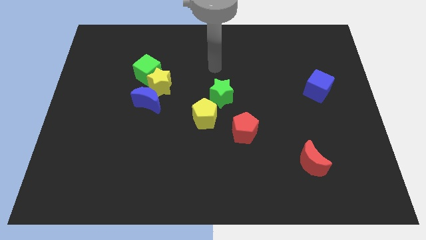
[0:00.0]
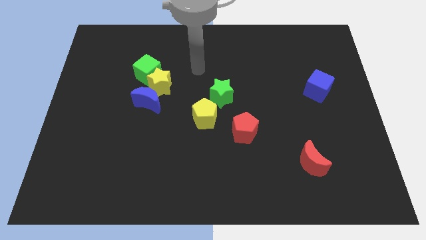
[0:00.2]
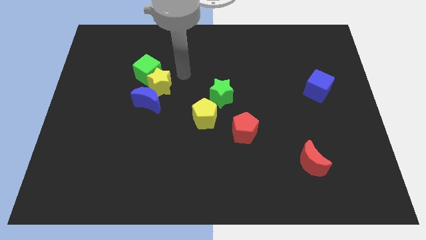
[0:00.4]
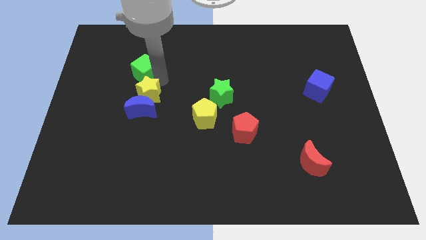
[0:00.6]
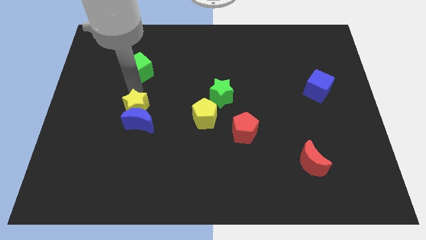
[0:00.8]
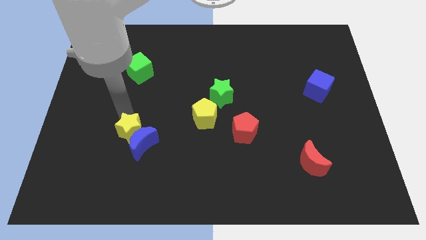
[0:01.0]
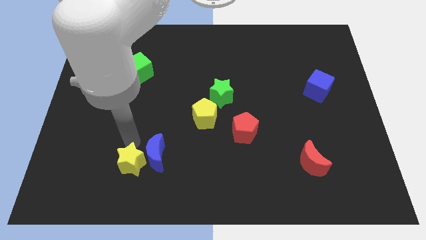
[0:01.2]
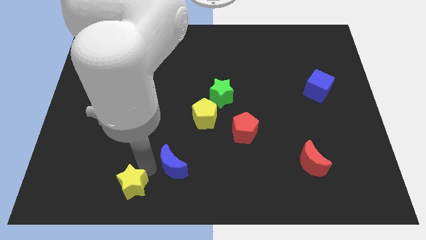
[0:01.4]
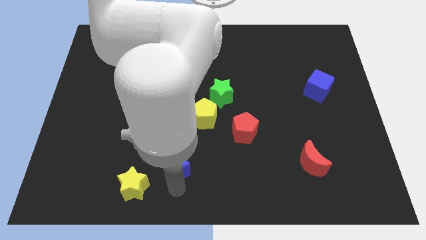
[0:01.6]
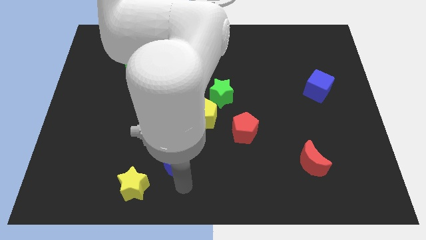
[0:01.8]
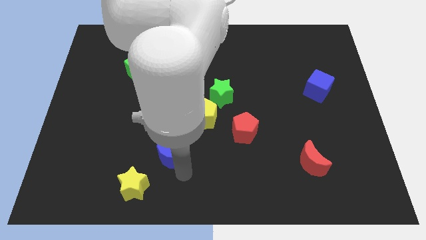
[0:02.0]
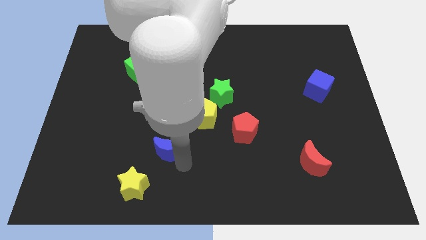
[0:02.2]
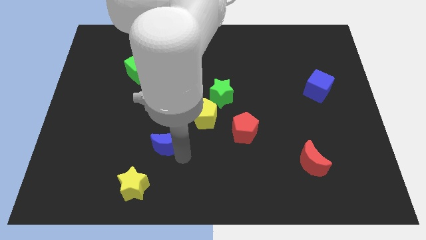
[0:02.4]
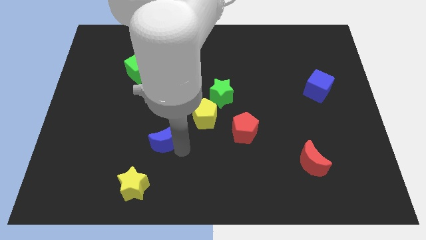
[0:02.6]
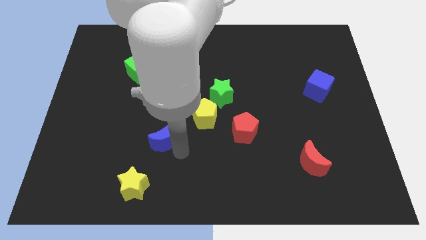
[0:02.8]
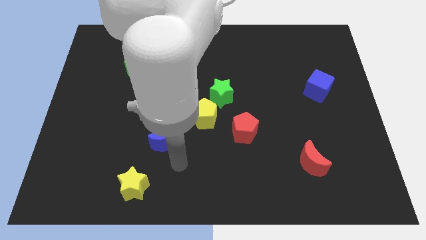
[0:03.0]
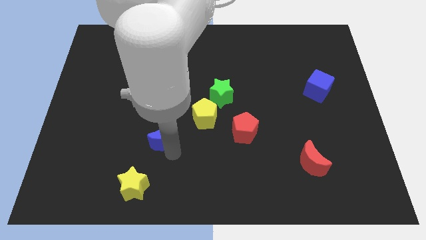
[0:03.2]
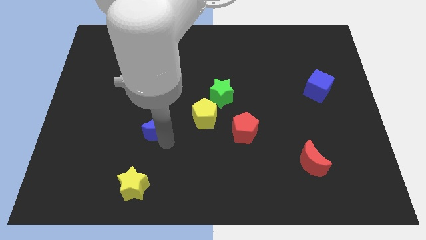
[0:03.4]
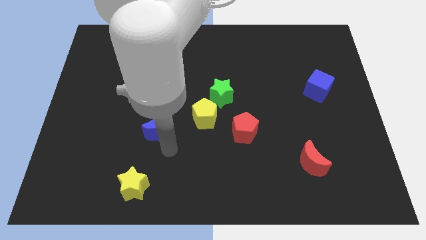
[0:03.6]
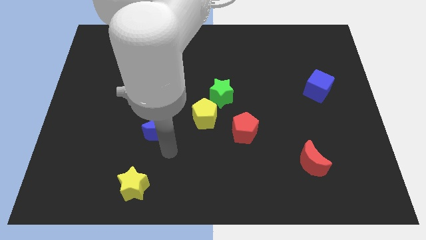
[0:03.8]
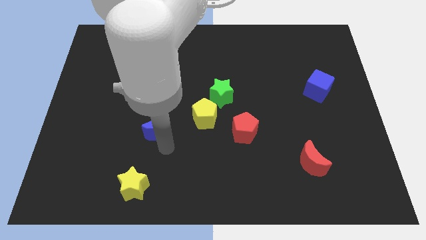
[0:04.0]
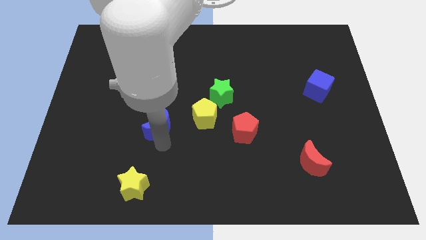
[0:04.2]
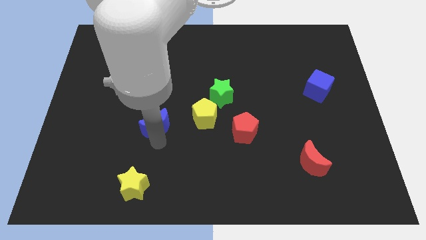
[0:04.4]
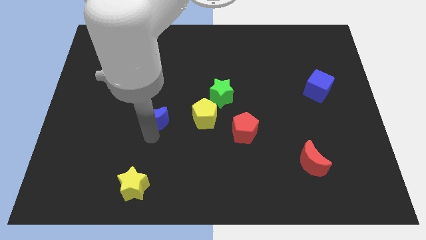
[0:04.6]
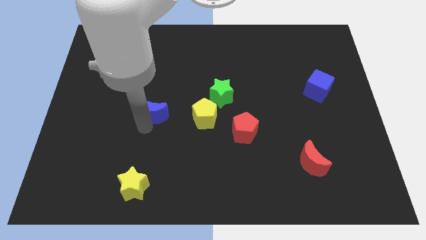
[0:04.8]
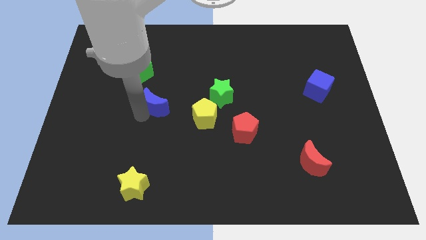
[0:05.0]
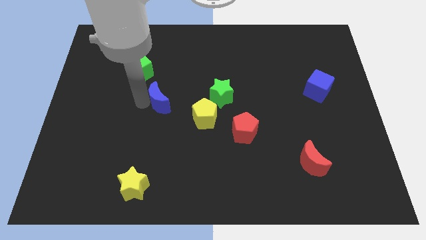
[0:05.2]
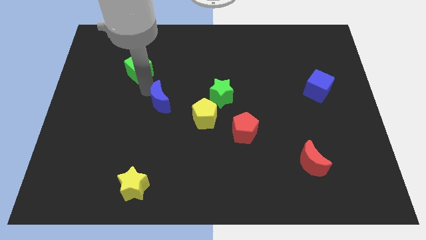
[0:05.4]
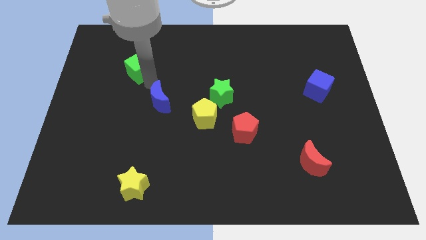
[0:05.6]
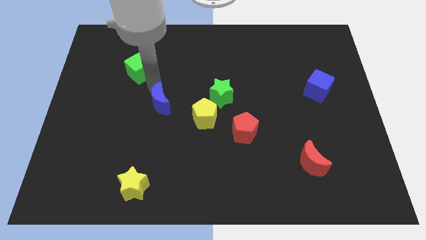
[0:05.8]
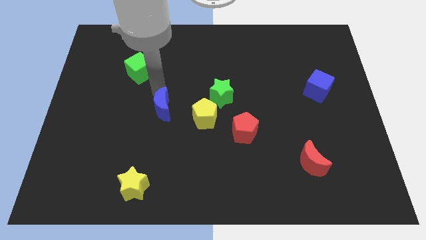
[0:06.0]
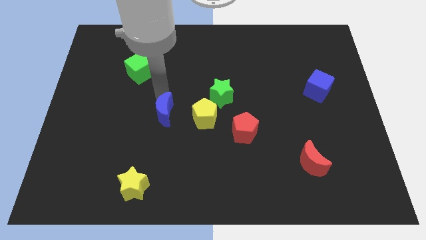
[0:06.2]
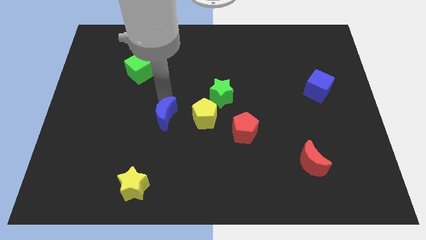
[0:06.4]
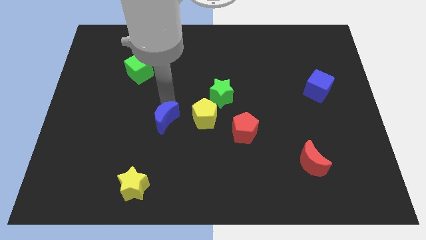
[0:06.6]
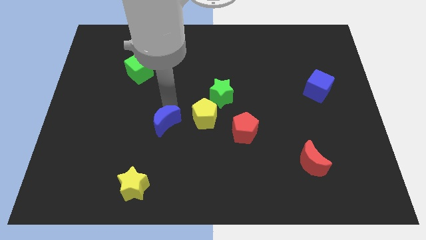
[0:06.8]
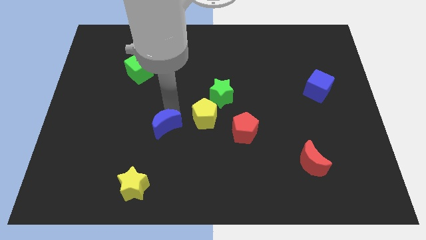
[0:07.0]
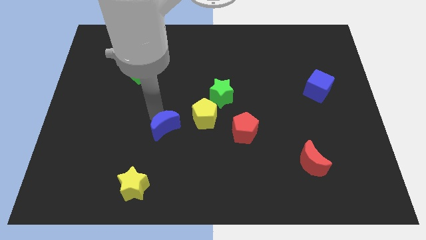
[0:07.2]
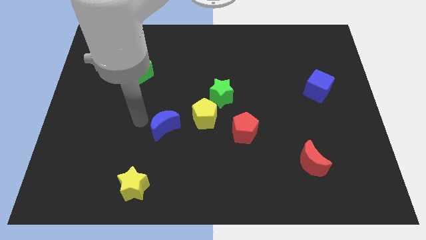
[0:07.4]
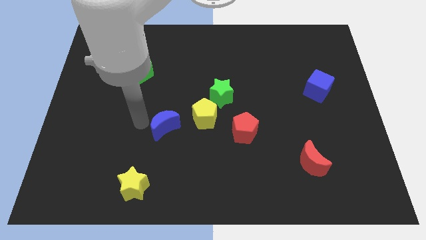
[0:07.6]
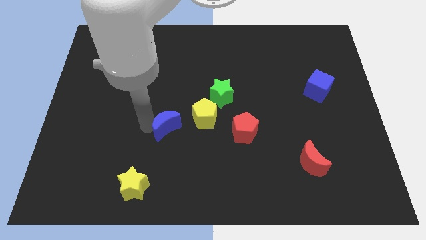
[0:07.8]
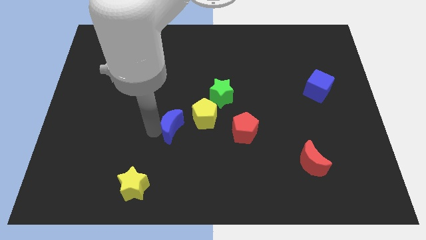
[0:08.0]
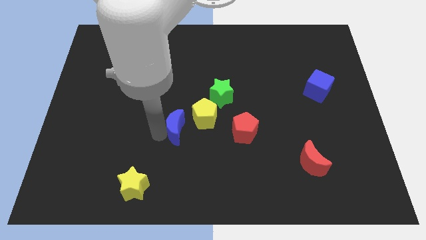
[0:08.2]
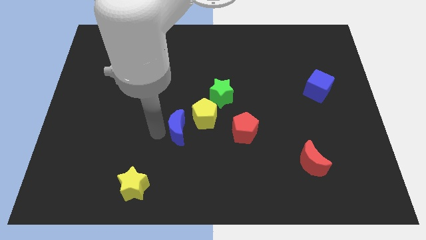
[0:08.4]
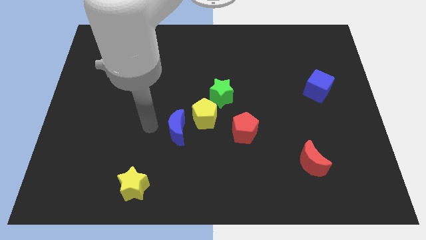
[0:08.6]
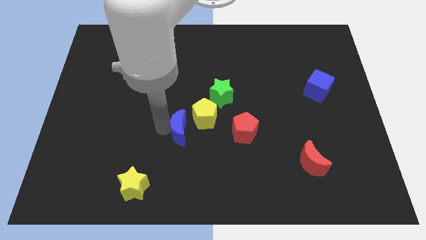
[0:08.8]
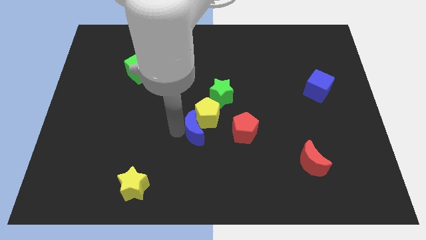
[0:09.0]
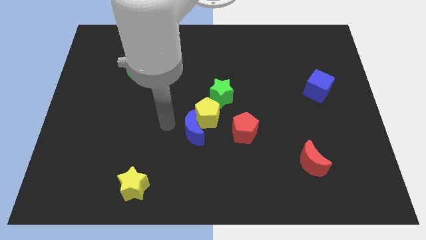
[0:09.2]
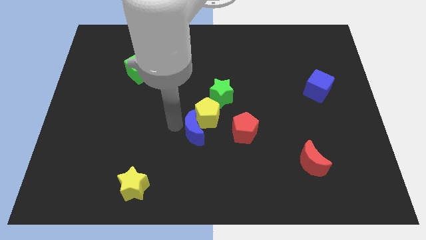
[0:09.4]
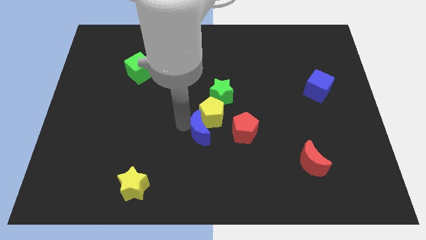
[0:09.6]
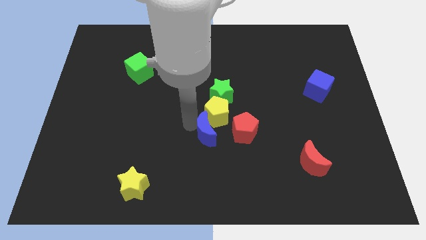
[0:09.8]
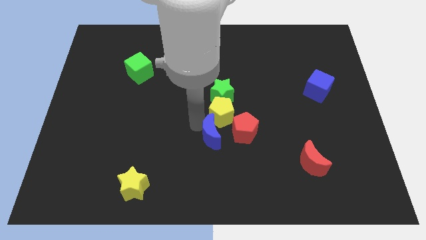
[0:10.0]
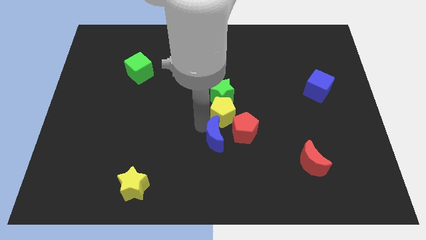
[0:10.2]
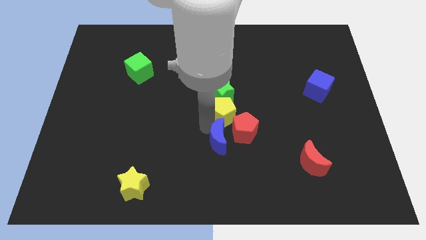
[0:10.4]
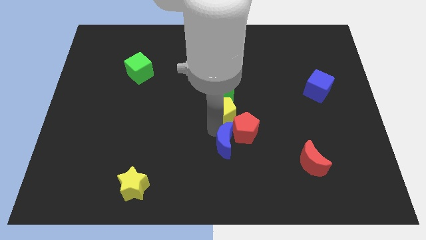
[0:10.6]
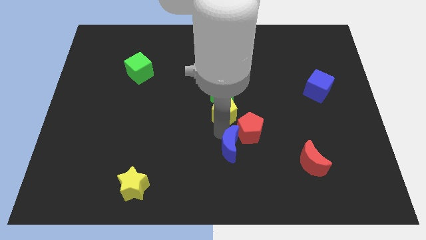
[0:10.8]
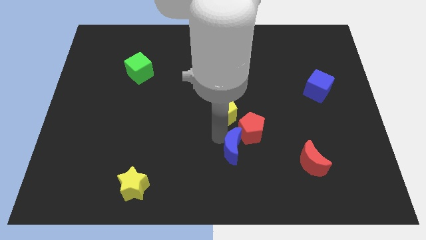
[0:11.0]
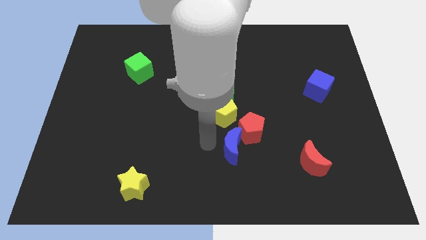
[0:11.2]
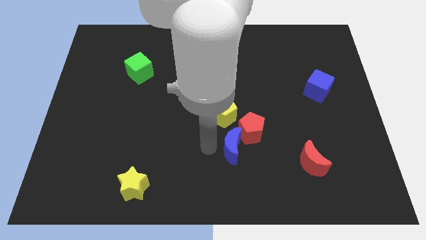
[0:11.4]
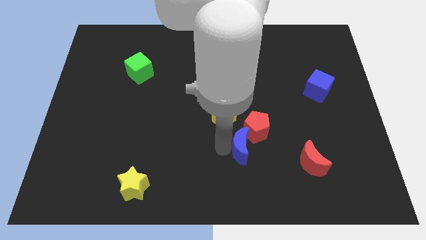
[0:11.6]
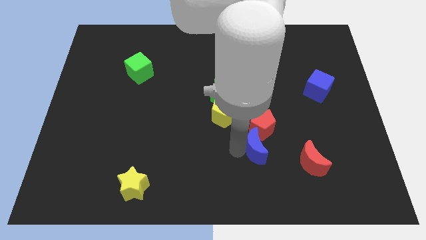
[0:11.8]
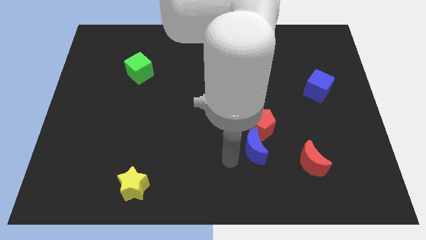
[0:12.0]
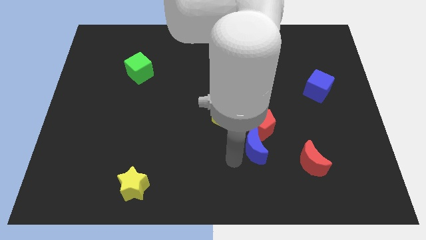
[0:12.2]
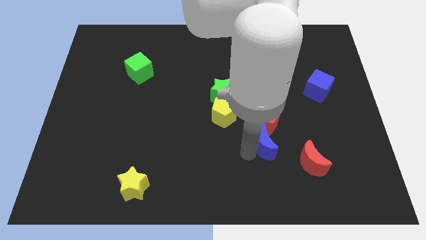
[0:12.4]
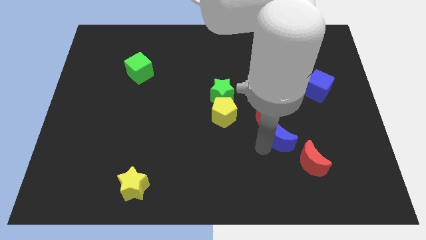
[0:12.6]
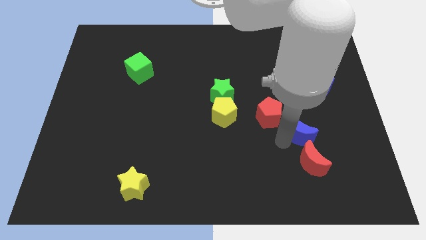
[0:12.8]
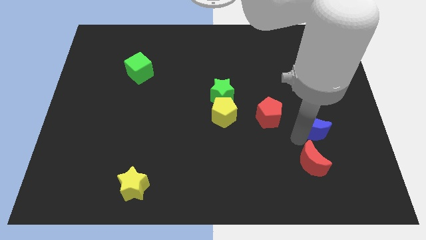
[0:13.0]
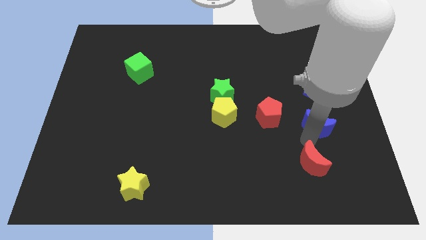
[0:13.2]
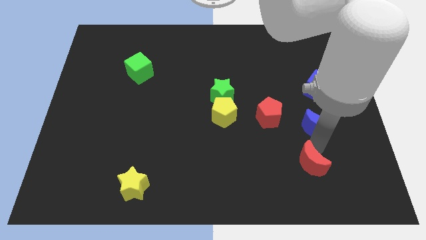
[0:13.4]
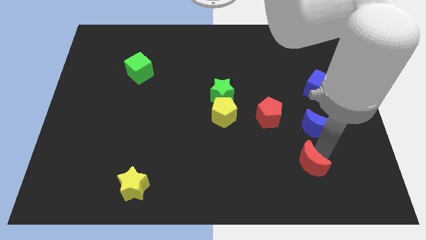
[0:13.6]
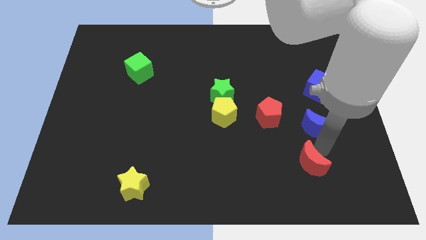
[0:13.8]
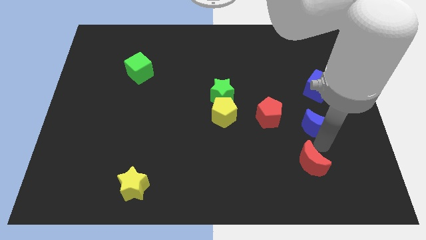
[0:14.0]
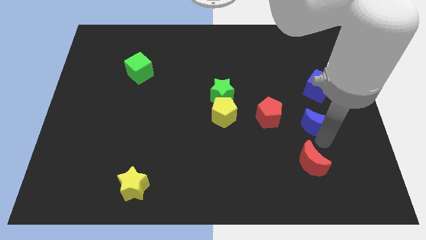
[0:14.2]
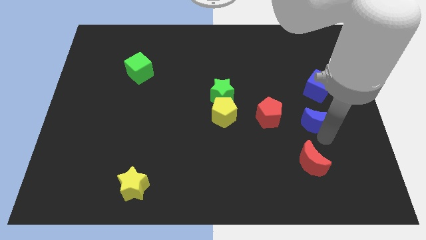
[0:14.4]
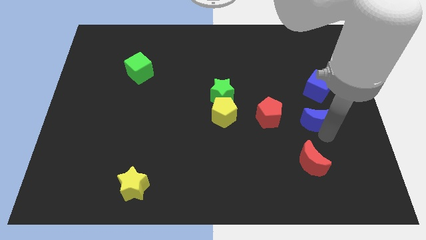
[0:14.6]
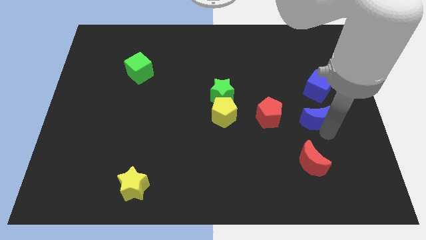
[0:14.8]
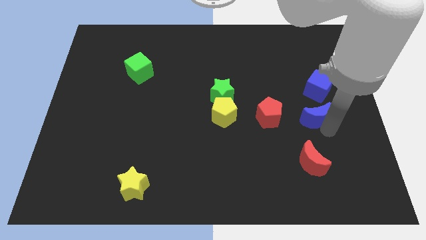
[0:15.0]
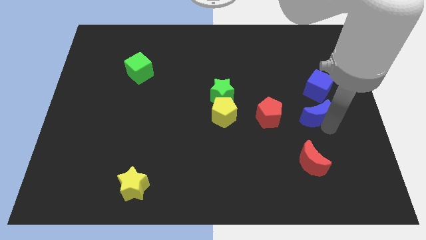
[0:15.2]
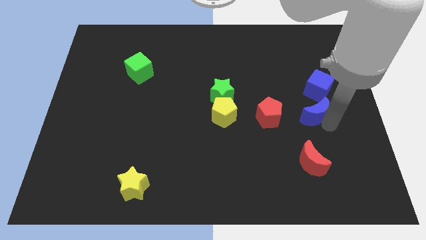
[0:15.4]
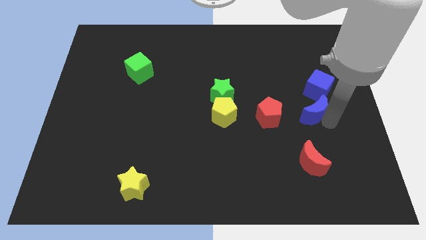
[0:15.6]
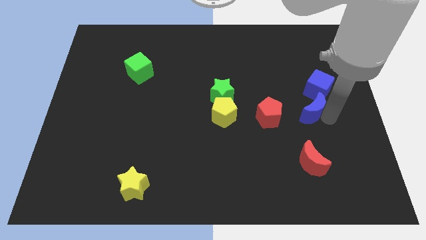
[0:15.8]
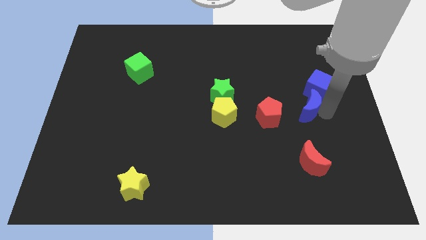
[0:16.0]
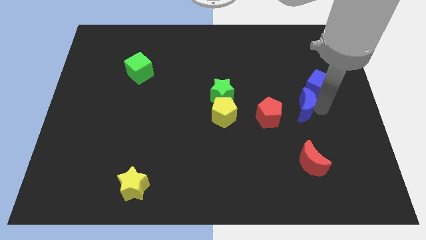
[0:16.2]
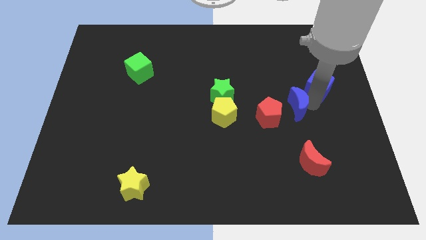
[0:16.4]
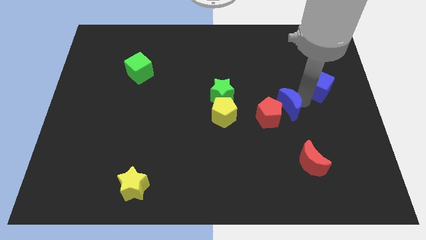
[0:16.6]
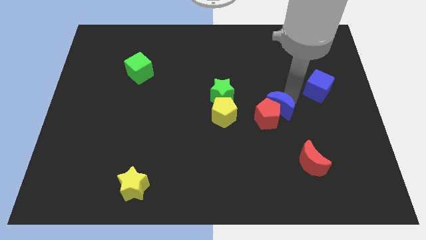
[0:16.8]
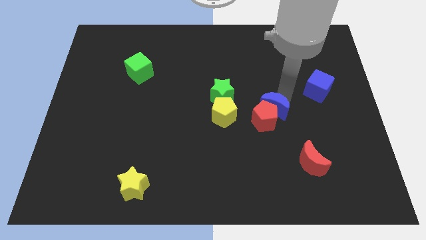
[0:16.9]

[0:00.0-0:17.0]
push the blue moon just right of the red pentagon
